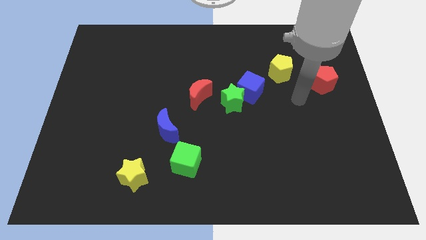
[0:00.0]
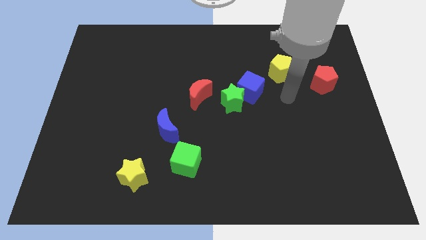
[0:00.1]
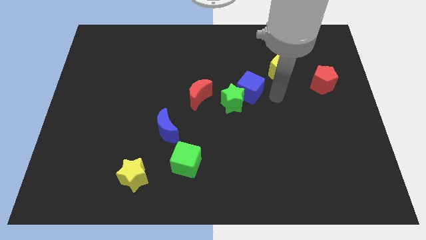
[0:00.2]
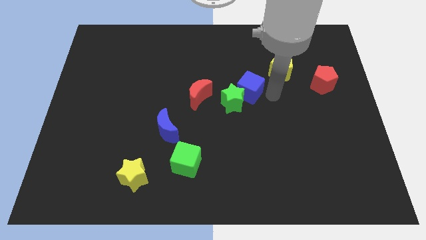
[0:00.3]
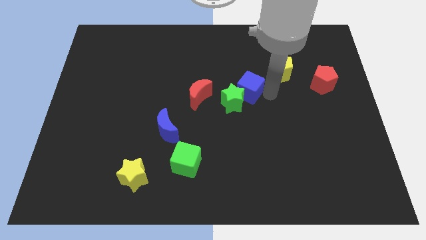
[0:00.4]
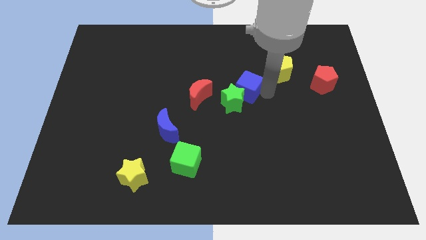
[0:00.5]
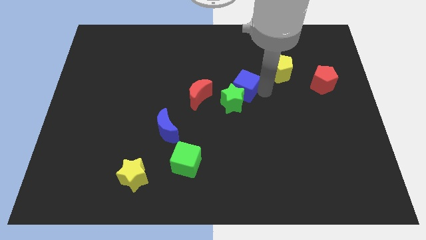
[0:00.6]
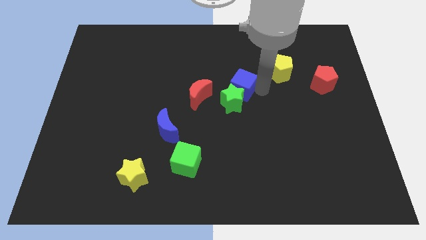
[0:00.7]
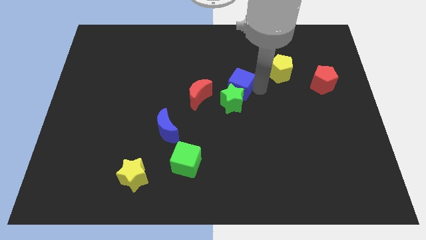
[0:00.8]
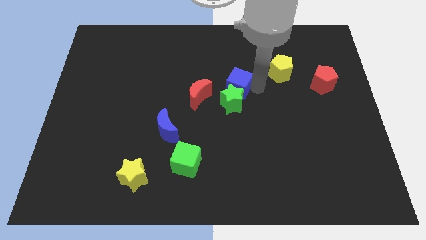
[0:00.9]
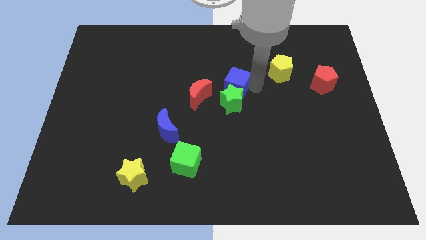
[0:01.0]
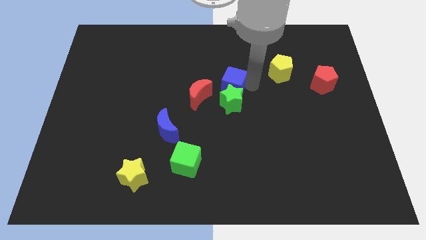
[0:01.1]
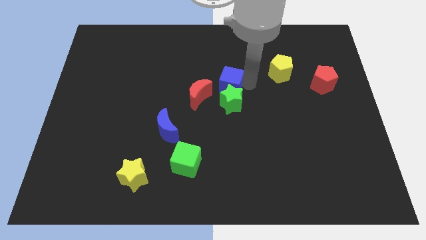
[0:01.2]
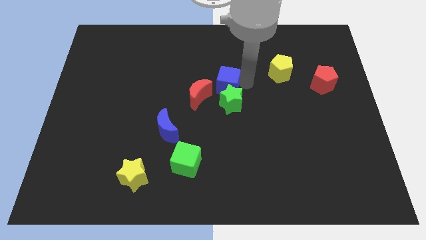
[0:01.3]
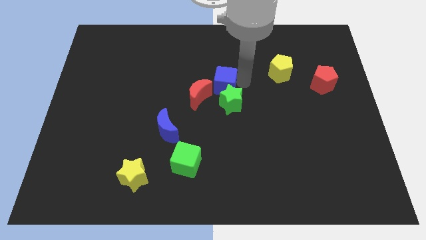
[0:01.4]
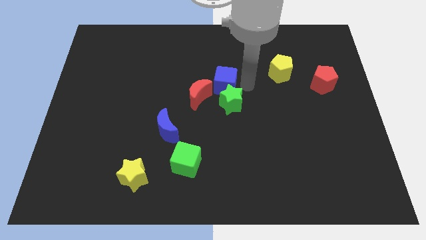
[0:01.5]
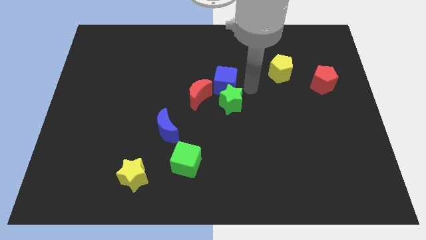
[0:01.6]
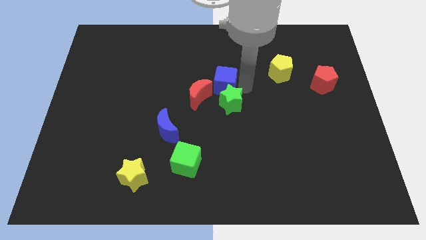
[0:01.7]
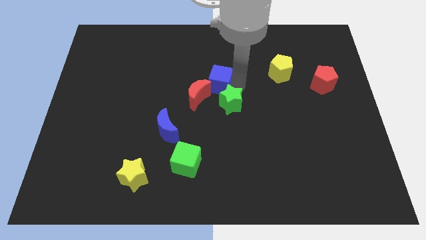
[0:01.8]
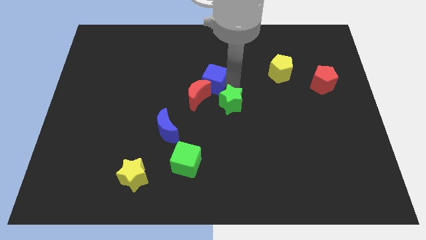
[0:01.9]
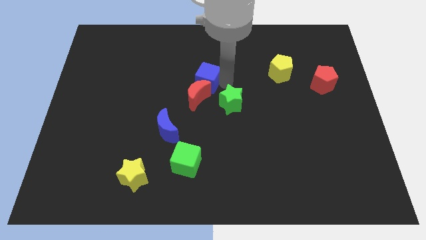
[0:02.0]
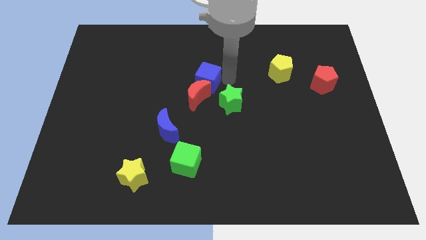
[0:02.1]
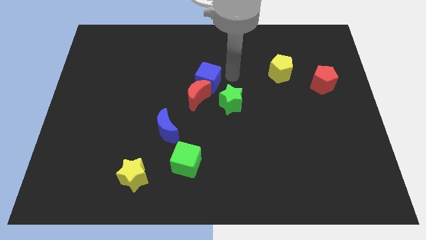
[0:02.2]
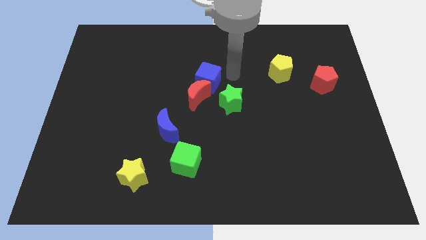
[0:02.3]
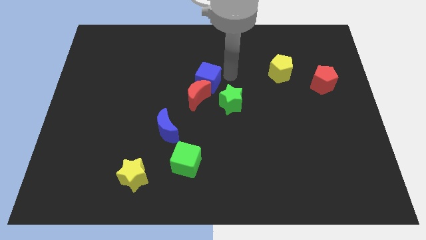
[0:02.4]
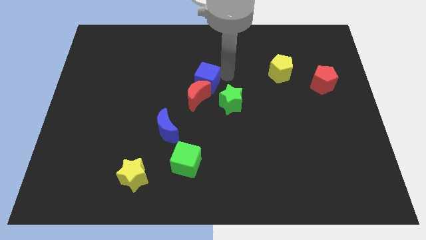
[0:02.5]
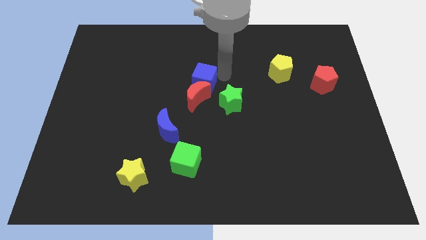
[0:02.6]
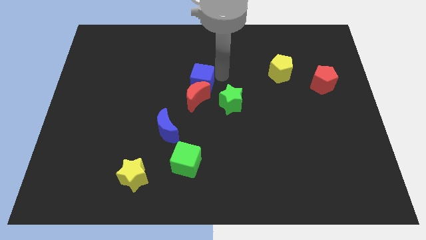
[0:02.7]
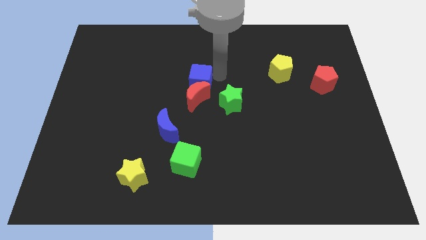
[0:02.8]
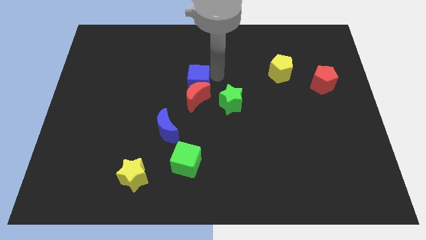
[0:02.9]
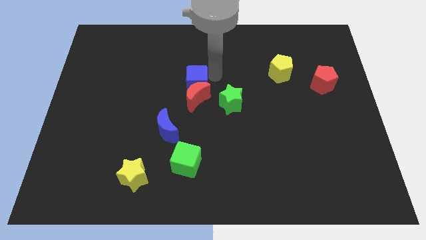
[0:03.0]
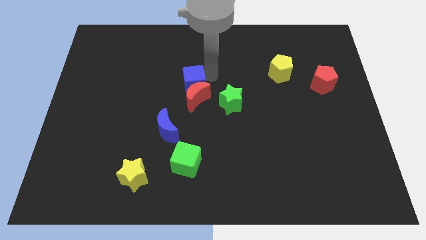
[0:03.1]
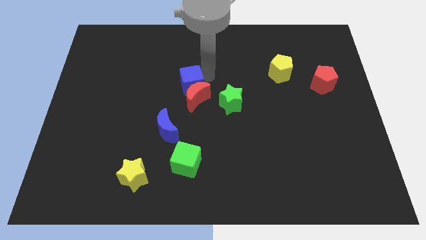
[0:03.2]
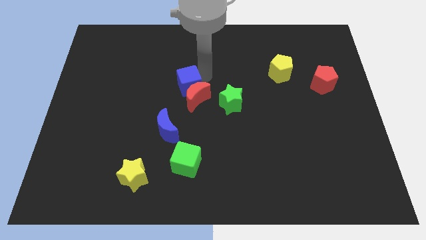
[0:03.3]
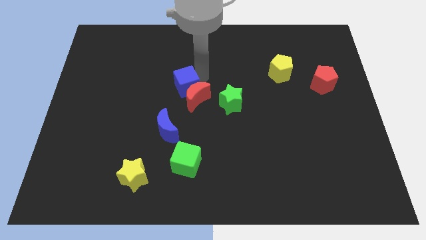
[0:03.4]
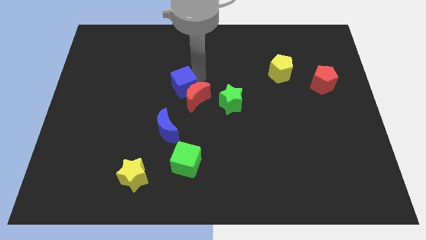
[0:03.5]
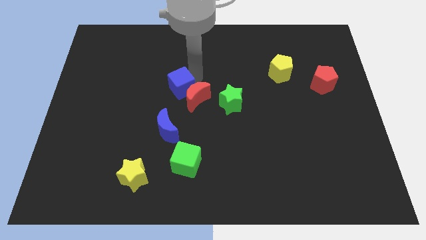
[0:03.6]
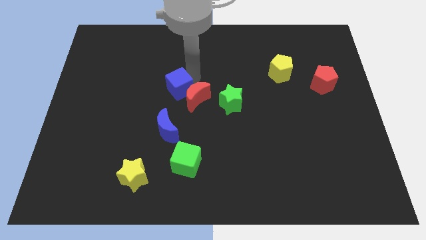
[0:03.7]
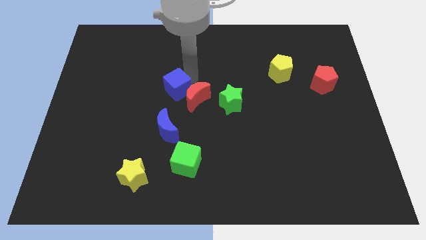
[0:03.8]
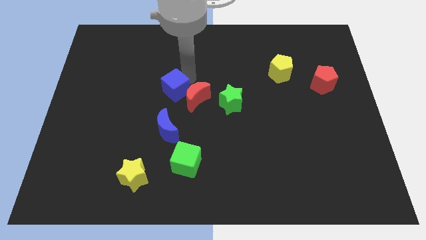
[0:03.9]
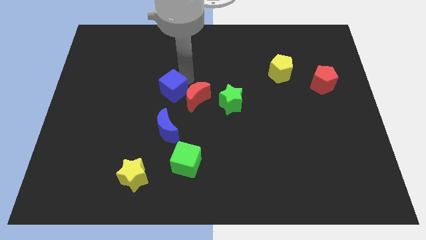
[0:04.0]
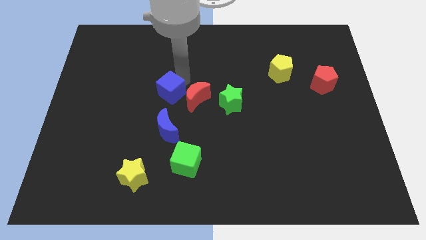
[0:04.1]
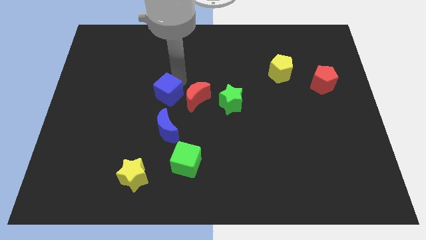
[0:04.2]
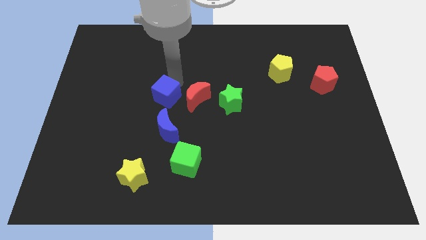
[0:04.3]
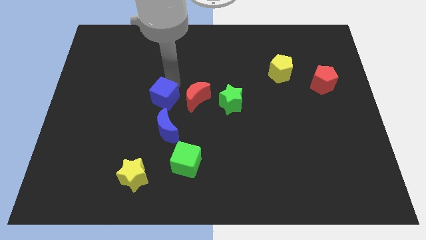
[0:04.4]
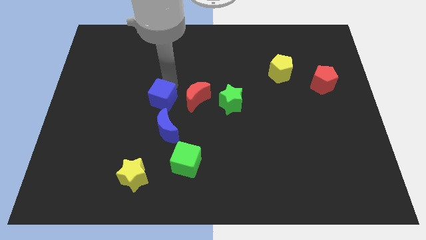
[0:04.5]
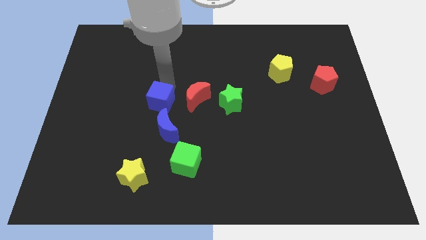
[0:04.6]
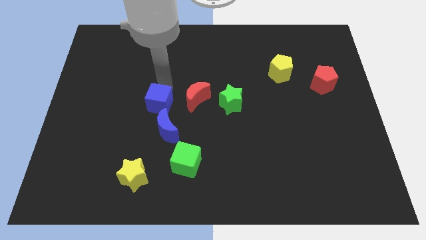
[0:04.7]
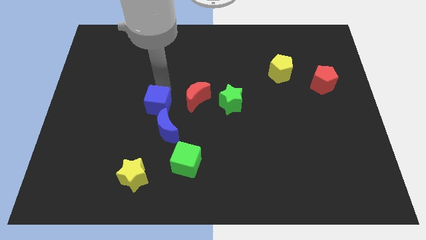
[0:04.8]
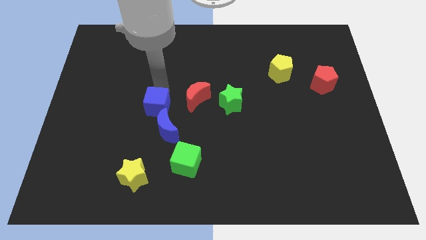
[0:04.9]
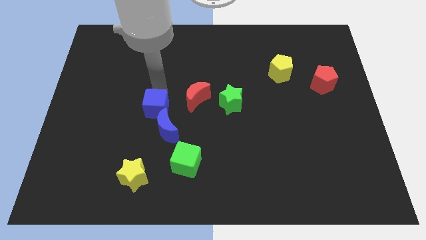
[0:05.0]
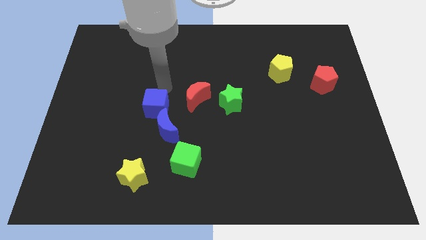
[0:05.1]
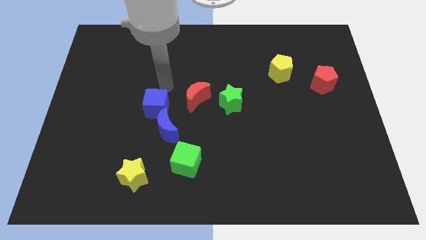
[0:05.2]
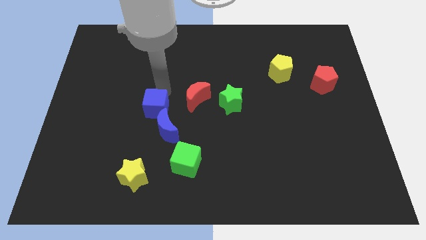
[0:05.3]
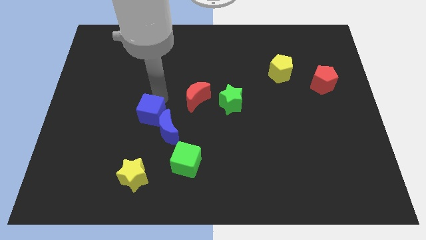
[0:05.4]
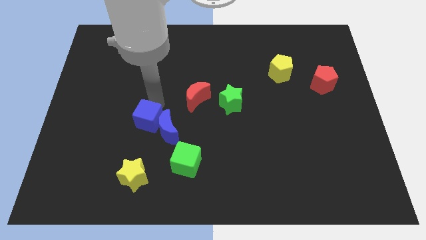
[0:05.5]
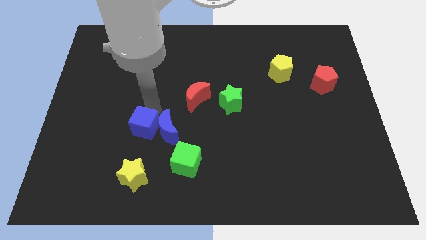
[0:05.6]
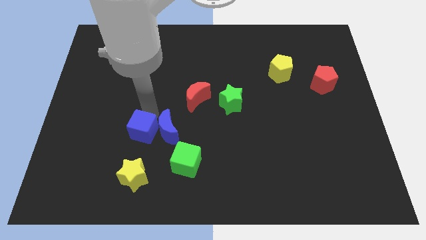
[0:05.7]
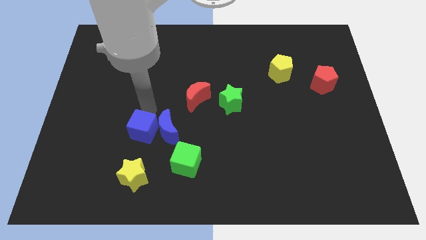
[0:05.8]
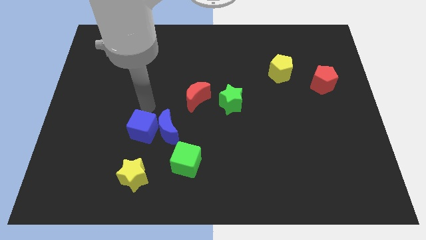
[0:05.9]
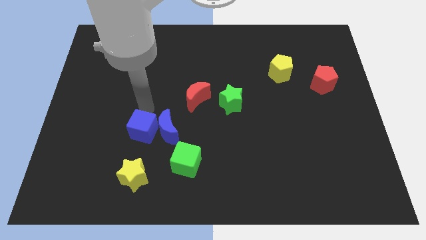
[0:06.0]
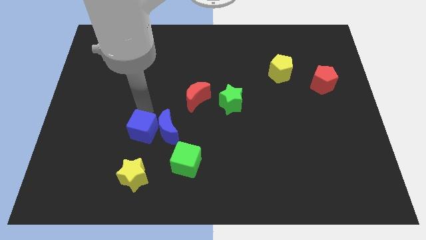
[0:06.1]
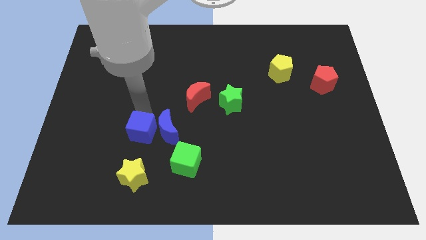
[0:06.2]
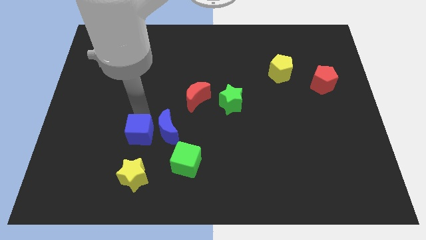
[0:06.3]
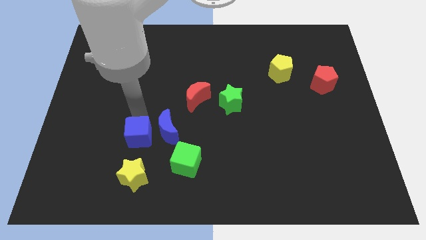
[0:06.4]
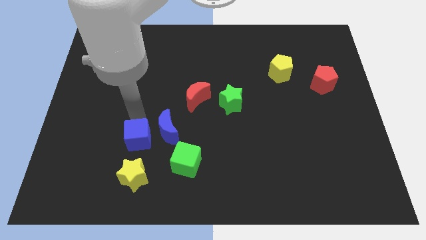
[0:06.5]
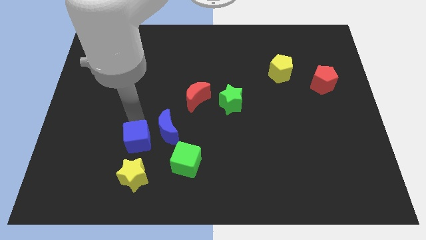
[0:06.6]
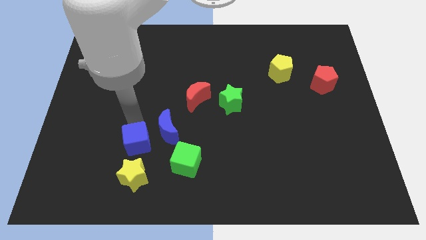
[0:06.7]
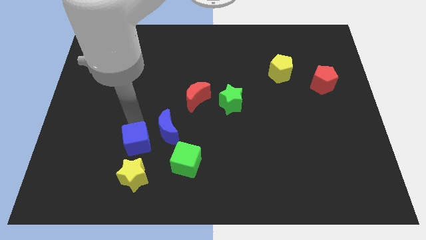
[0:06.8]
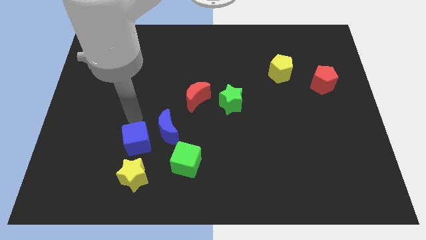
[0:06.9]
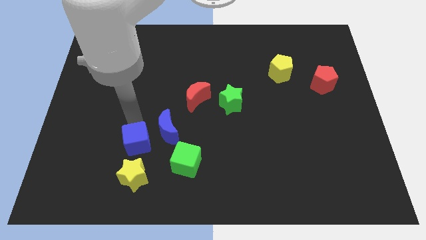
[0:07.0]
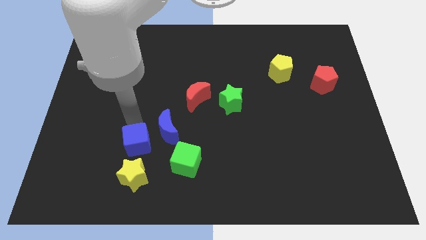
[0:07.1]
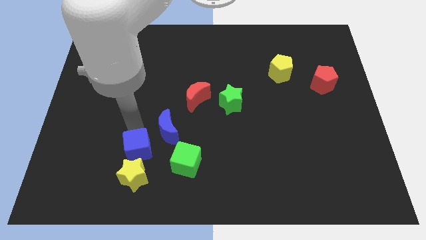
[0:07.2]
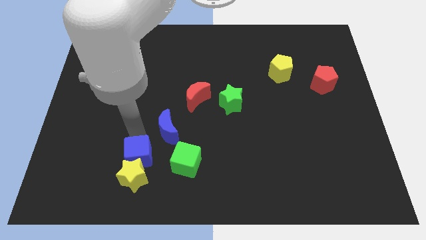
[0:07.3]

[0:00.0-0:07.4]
push the blue cube to the yellow star
